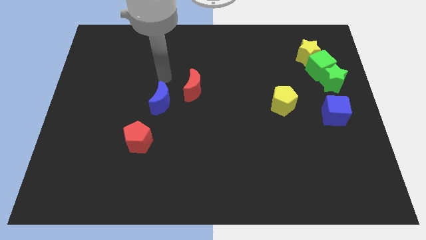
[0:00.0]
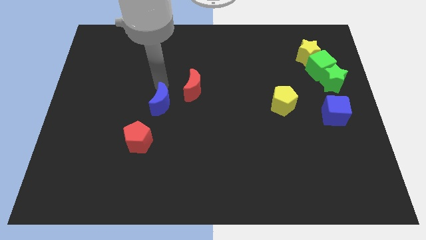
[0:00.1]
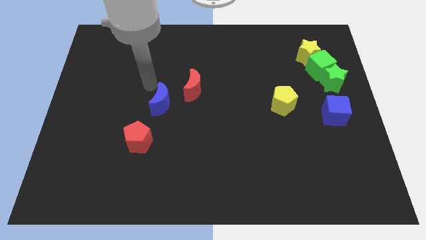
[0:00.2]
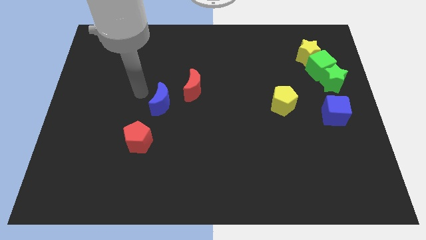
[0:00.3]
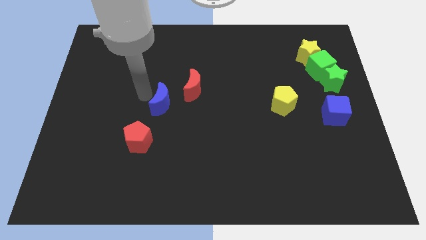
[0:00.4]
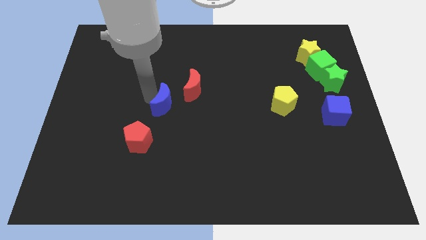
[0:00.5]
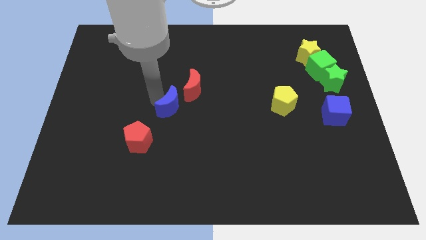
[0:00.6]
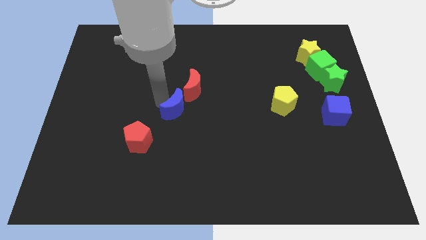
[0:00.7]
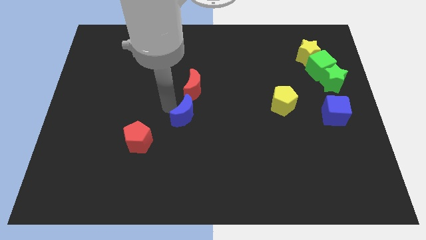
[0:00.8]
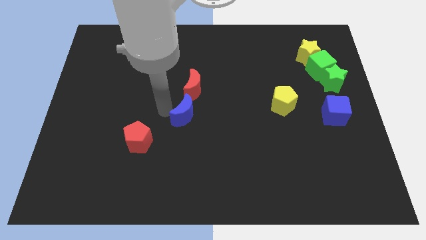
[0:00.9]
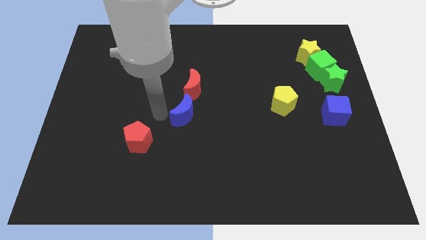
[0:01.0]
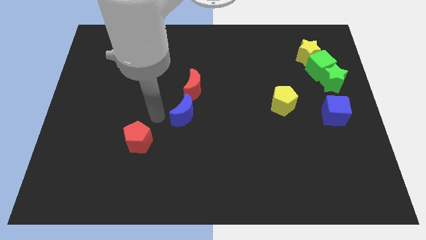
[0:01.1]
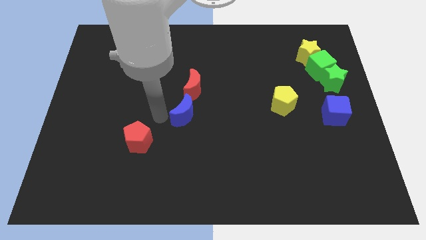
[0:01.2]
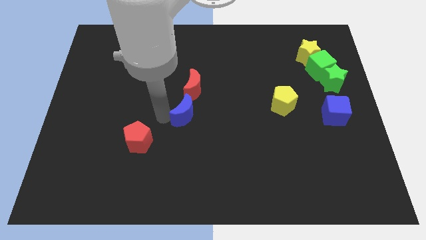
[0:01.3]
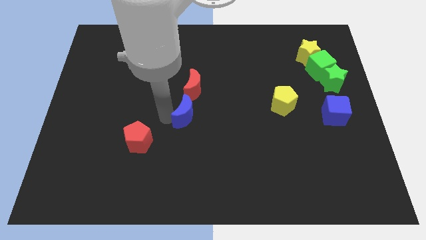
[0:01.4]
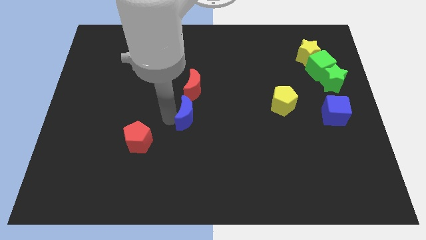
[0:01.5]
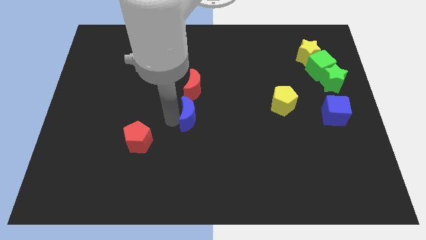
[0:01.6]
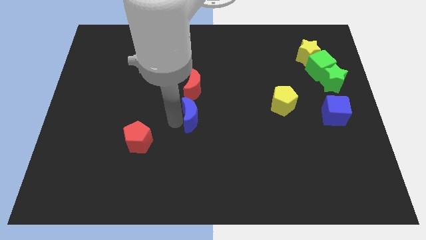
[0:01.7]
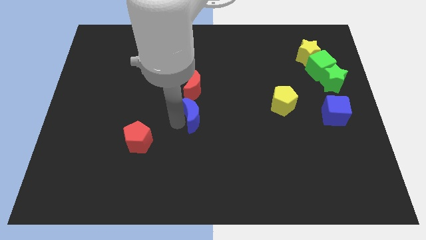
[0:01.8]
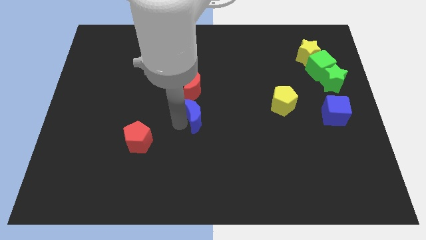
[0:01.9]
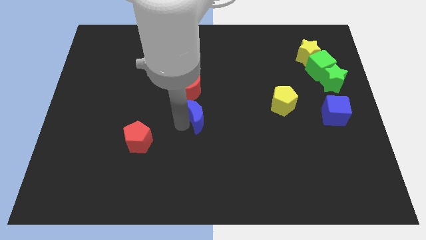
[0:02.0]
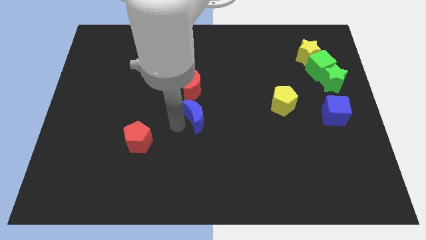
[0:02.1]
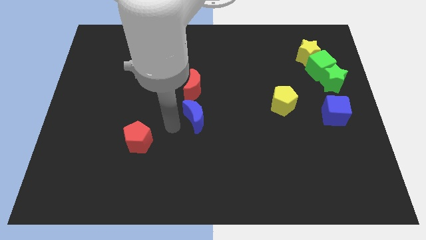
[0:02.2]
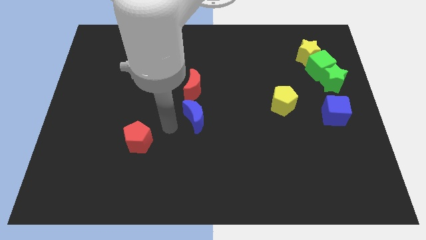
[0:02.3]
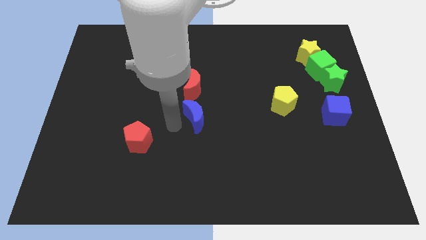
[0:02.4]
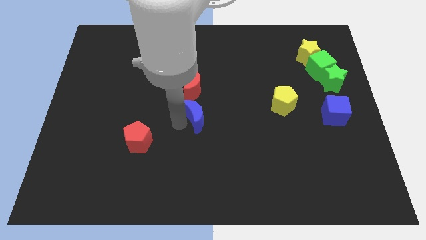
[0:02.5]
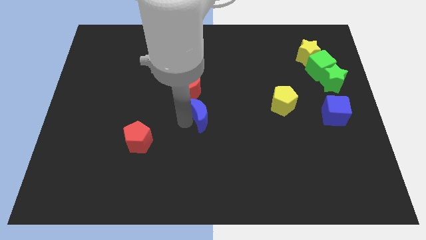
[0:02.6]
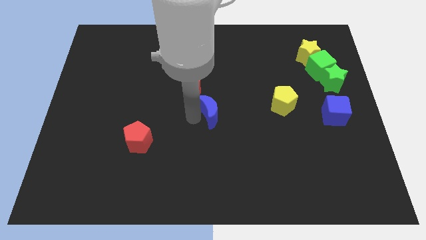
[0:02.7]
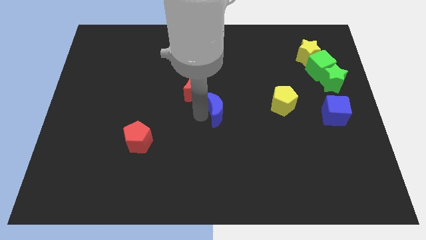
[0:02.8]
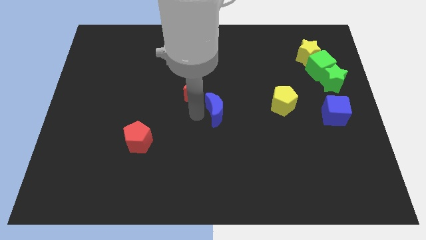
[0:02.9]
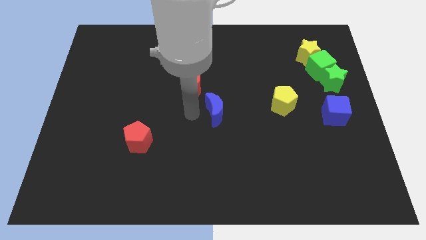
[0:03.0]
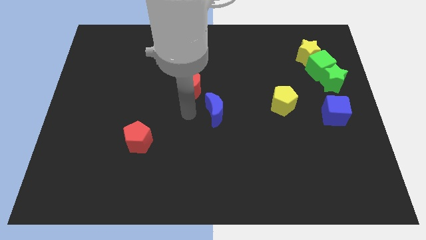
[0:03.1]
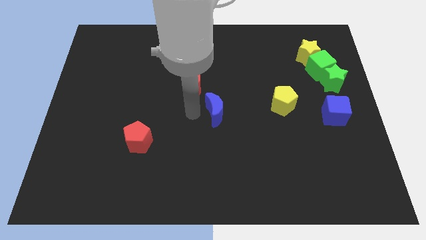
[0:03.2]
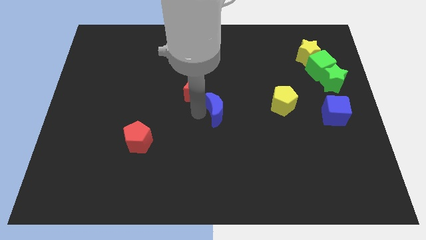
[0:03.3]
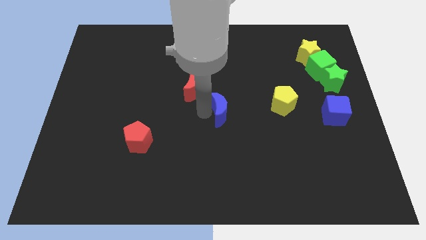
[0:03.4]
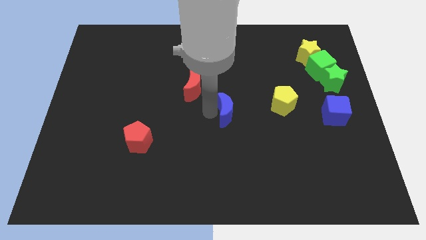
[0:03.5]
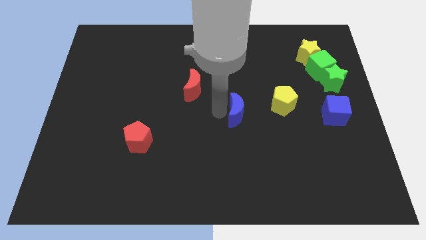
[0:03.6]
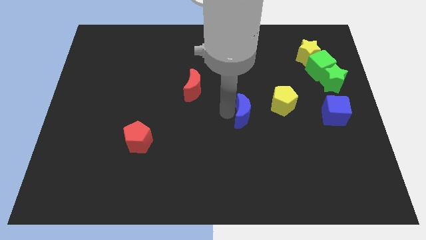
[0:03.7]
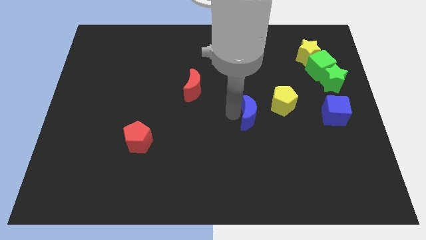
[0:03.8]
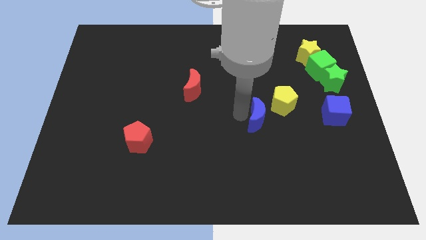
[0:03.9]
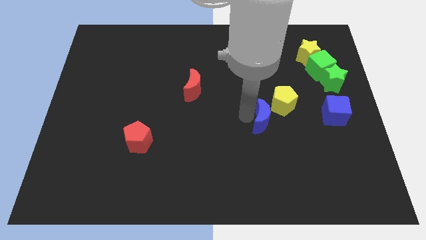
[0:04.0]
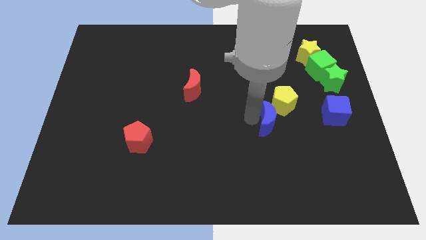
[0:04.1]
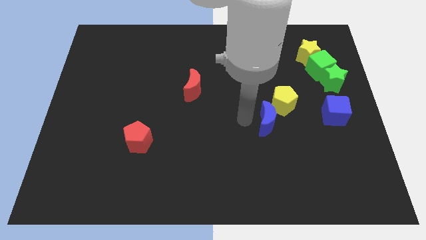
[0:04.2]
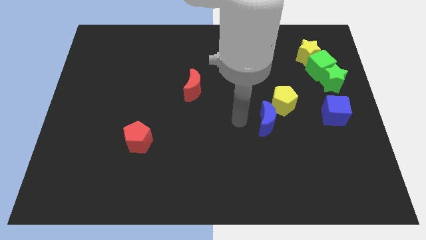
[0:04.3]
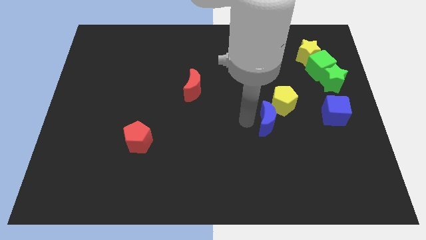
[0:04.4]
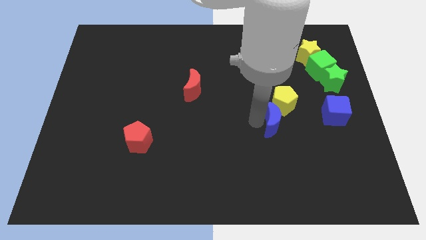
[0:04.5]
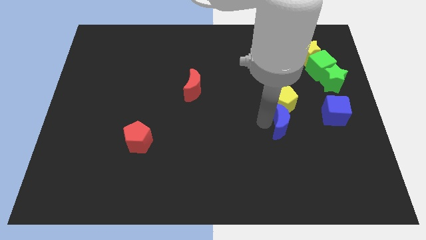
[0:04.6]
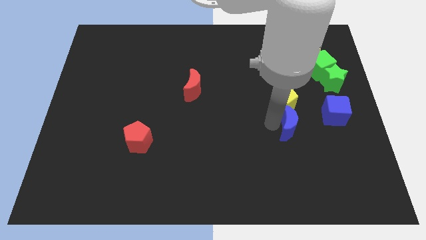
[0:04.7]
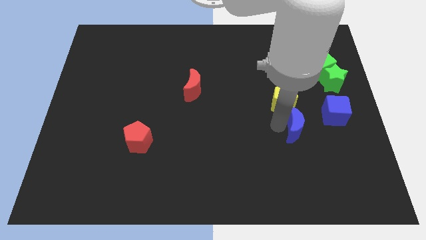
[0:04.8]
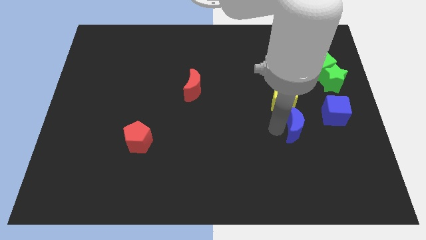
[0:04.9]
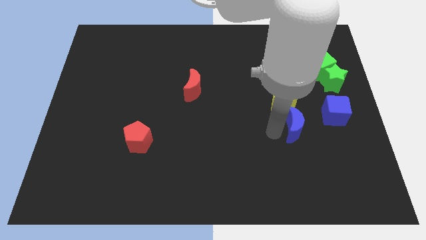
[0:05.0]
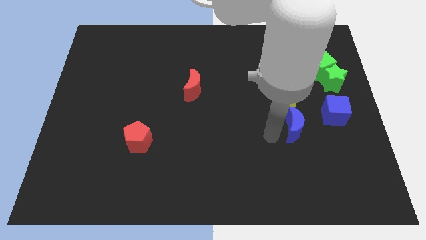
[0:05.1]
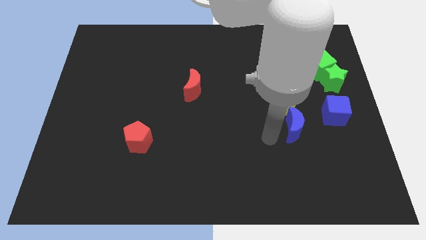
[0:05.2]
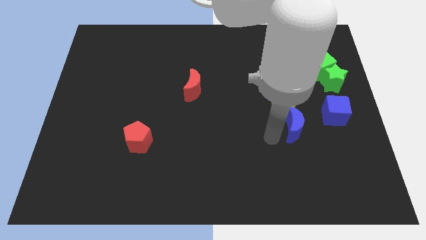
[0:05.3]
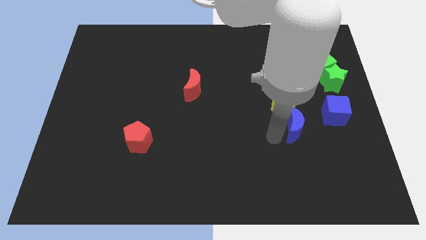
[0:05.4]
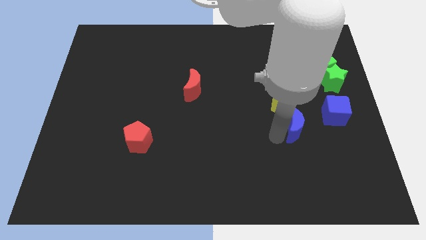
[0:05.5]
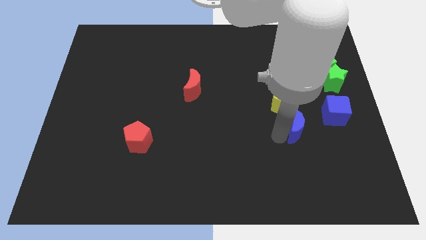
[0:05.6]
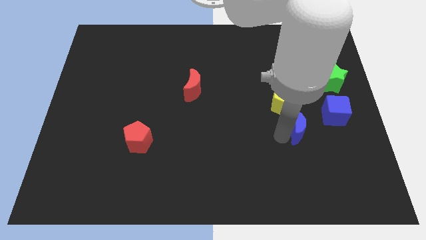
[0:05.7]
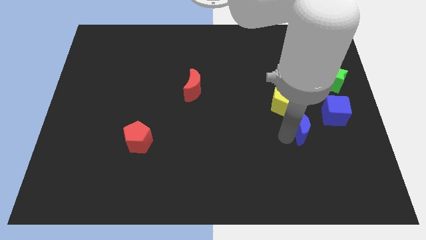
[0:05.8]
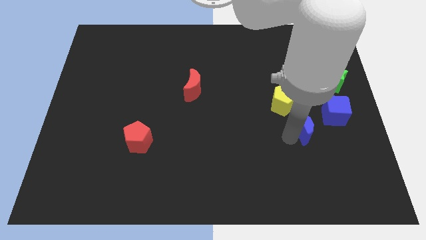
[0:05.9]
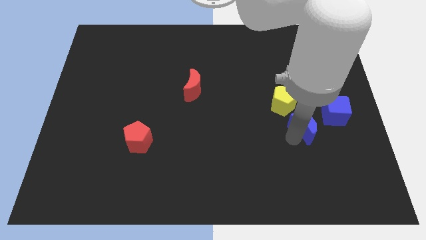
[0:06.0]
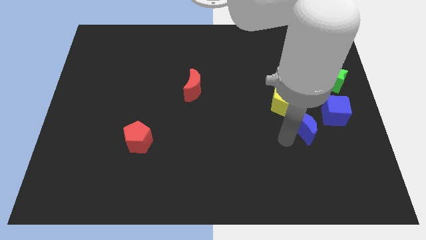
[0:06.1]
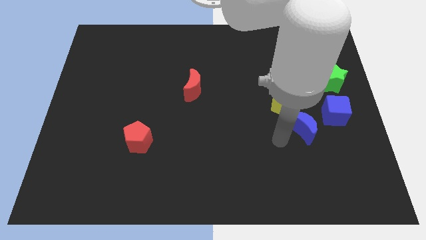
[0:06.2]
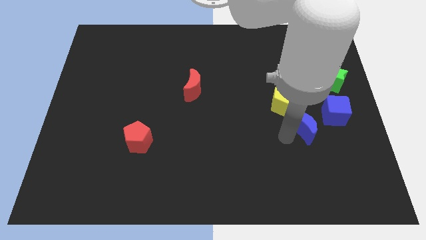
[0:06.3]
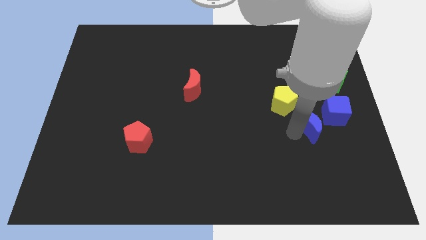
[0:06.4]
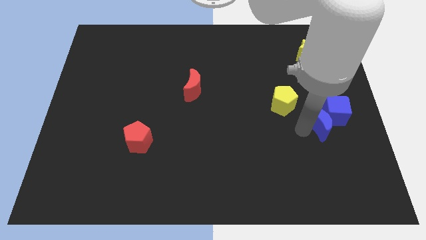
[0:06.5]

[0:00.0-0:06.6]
slide the blue moon next to the blue cube

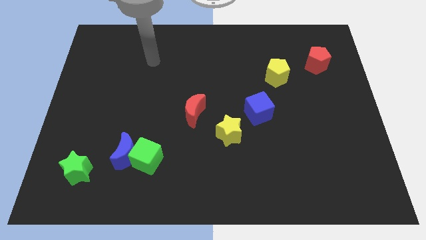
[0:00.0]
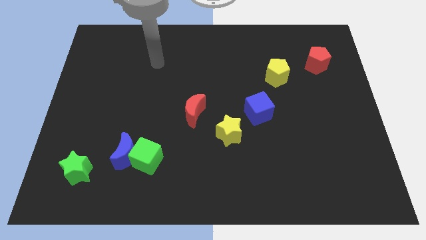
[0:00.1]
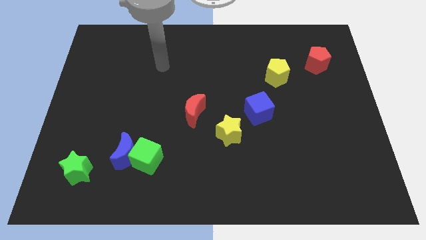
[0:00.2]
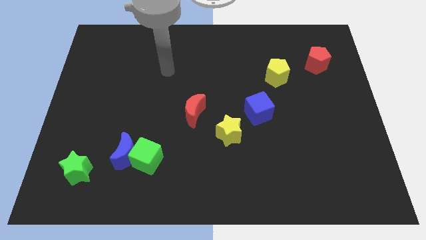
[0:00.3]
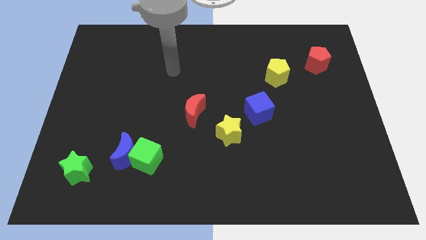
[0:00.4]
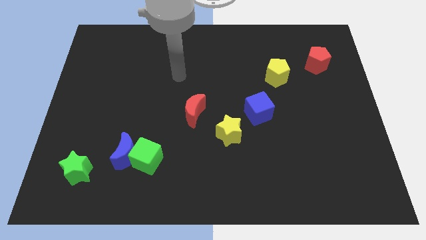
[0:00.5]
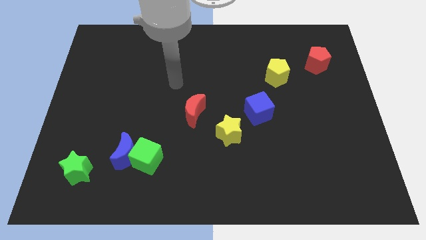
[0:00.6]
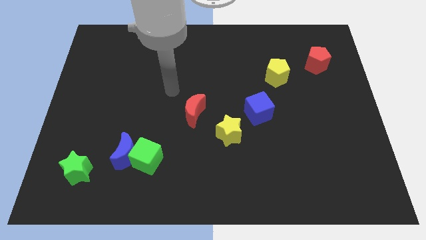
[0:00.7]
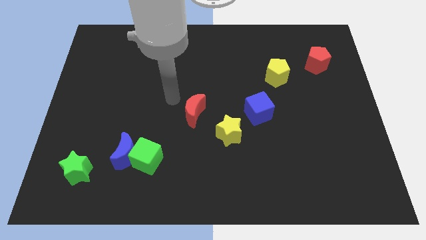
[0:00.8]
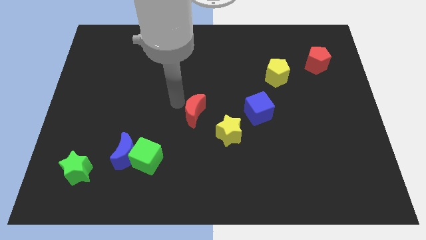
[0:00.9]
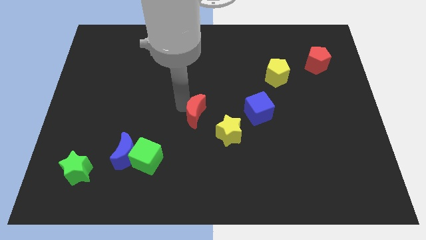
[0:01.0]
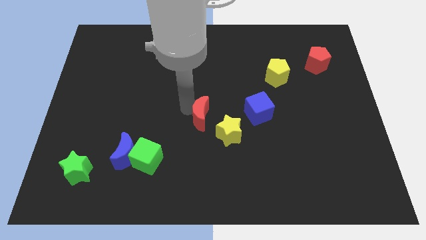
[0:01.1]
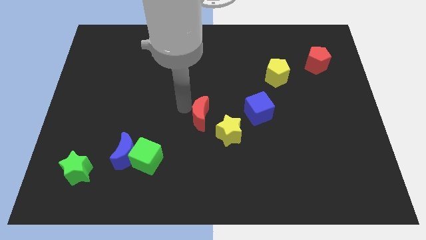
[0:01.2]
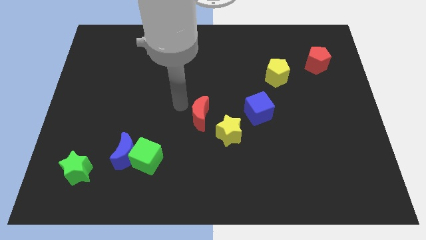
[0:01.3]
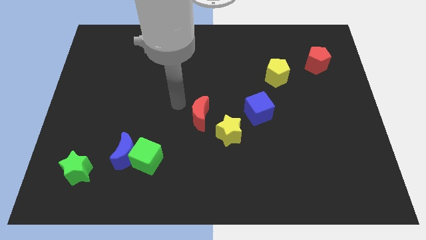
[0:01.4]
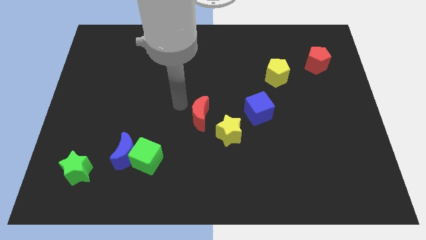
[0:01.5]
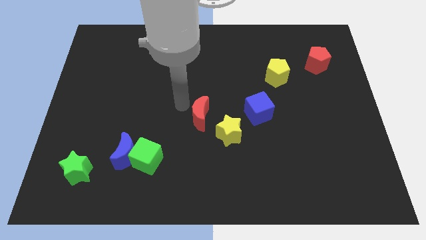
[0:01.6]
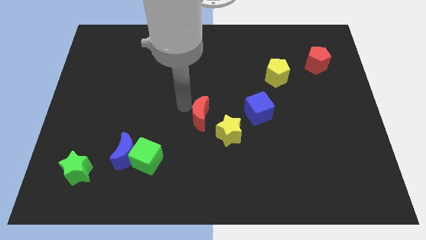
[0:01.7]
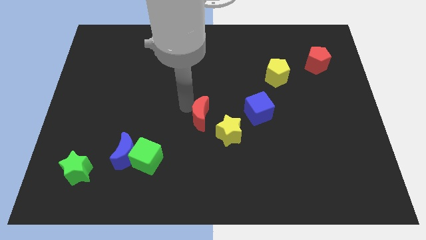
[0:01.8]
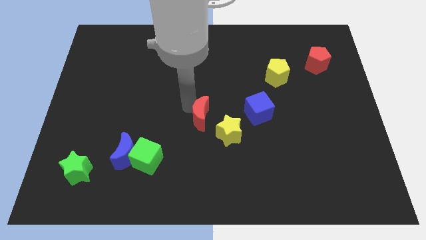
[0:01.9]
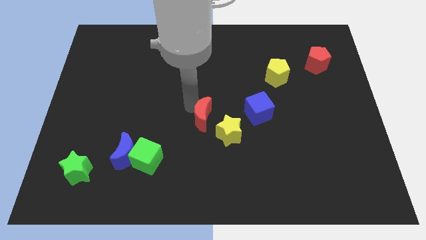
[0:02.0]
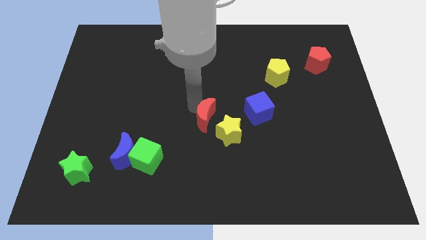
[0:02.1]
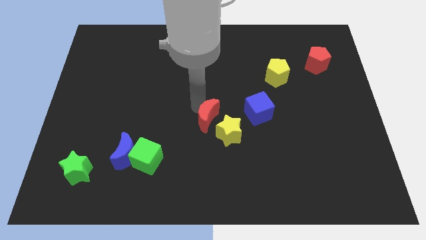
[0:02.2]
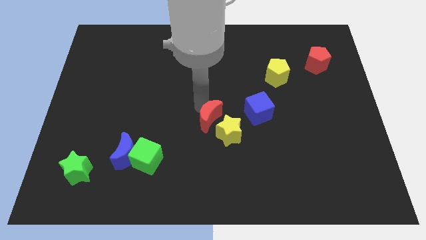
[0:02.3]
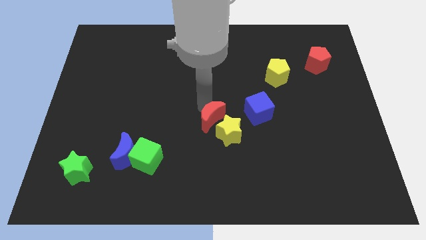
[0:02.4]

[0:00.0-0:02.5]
push the red moon close to the yellow star
